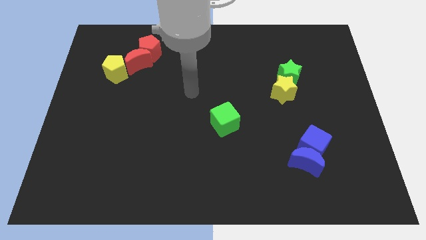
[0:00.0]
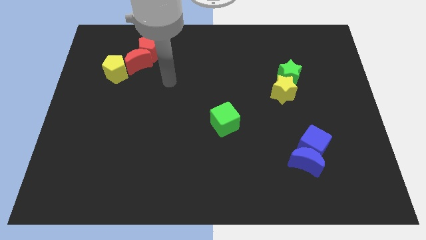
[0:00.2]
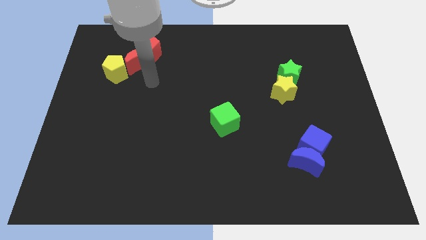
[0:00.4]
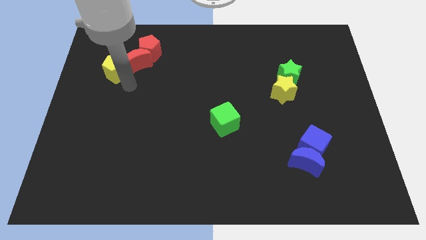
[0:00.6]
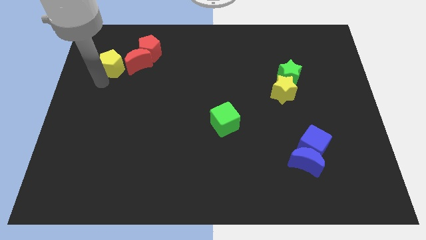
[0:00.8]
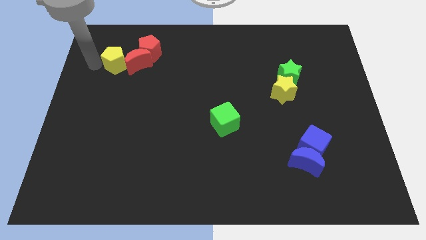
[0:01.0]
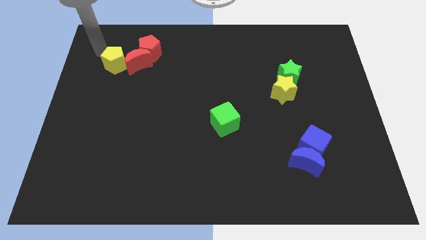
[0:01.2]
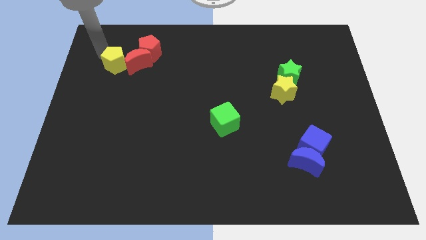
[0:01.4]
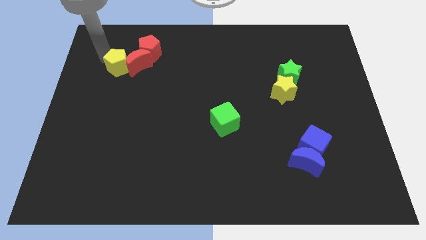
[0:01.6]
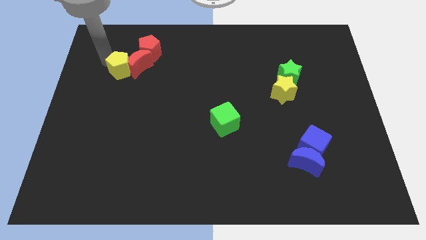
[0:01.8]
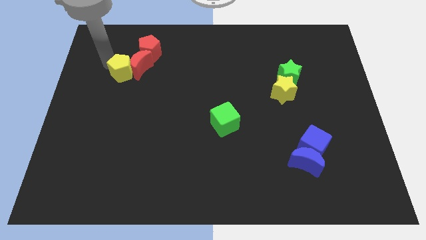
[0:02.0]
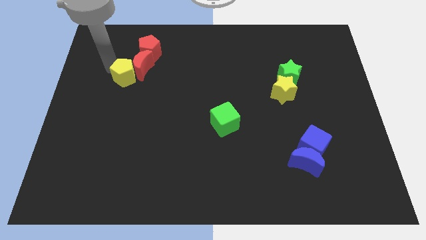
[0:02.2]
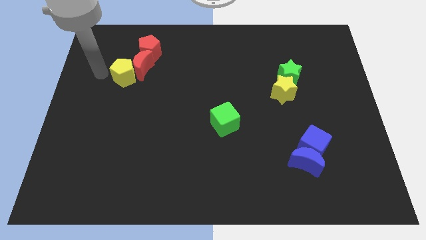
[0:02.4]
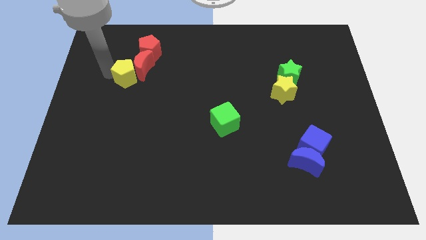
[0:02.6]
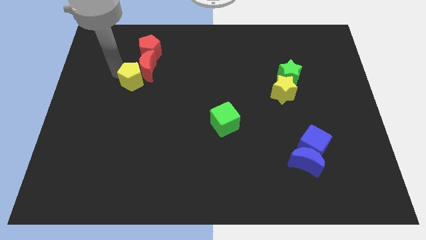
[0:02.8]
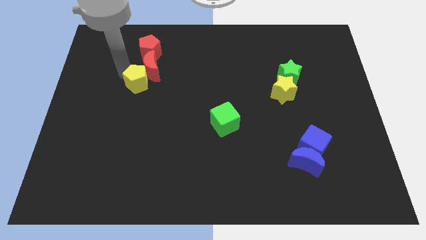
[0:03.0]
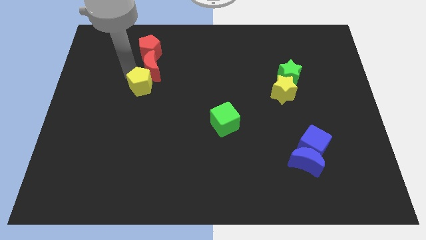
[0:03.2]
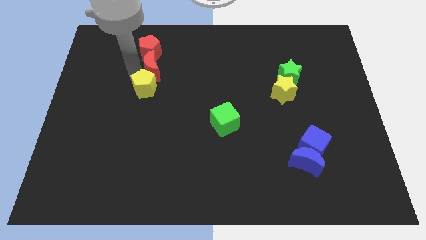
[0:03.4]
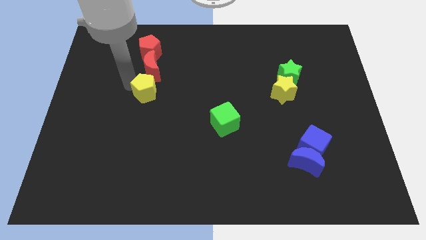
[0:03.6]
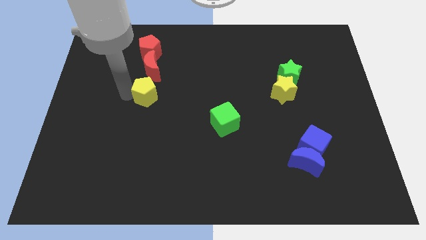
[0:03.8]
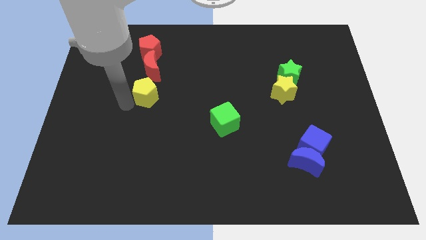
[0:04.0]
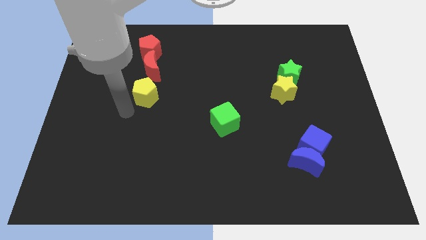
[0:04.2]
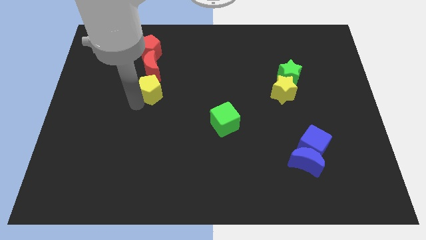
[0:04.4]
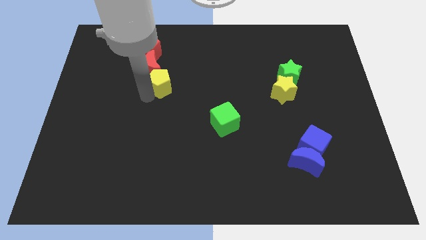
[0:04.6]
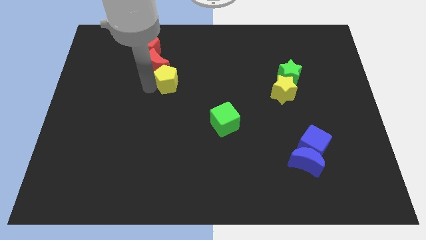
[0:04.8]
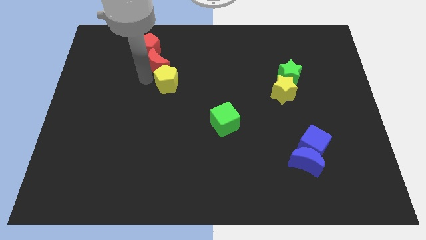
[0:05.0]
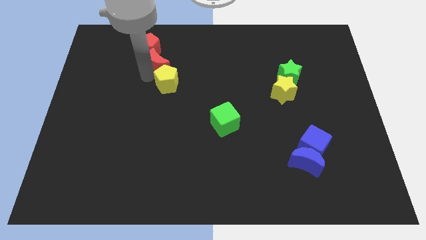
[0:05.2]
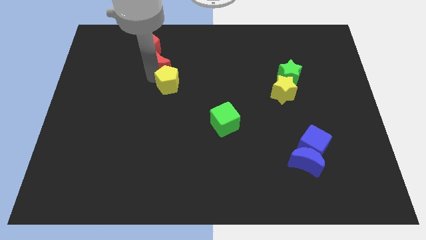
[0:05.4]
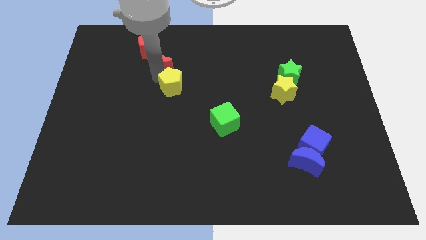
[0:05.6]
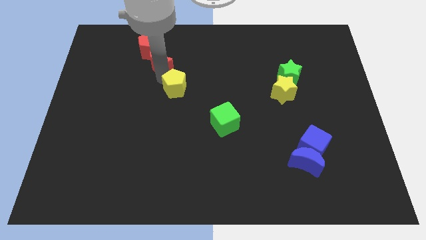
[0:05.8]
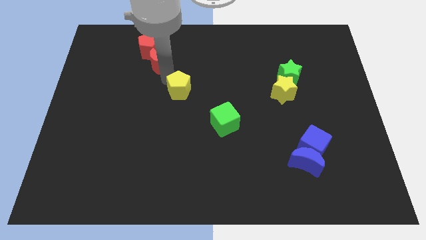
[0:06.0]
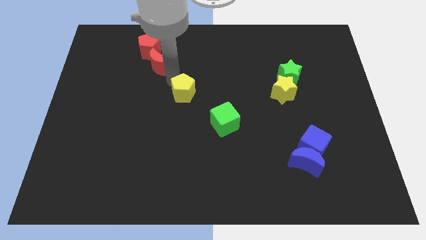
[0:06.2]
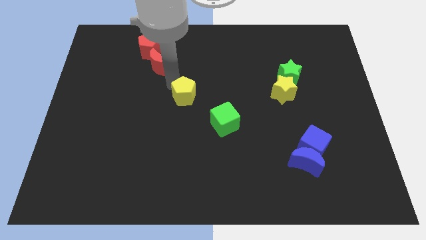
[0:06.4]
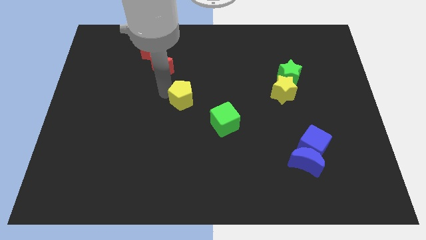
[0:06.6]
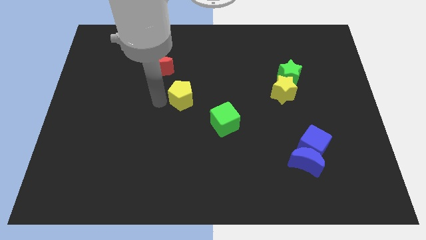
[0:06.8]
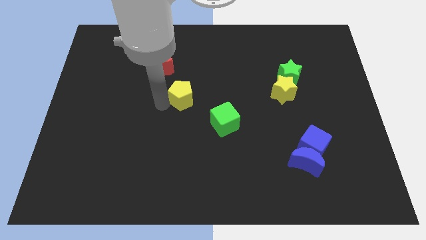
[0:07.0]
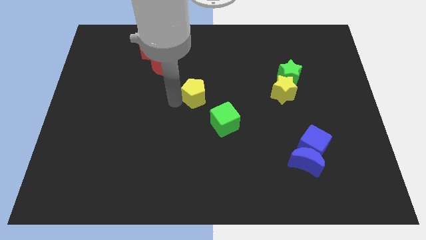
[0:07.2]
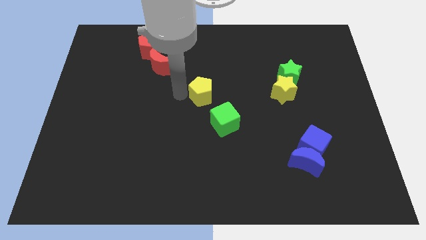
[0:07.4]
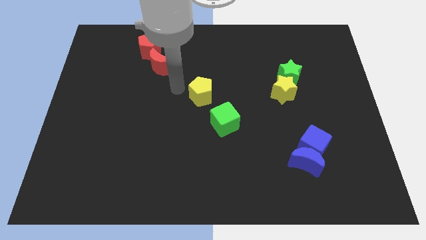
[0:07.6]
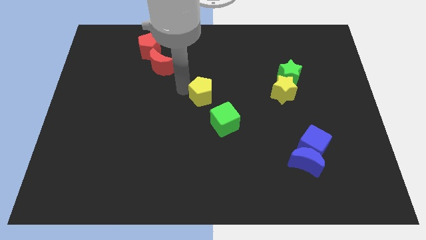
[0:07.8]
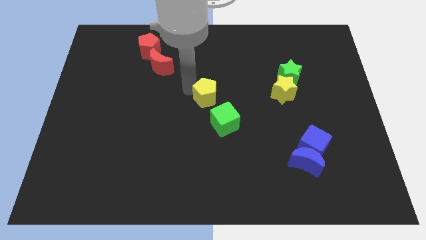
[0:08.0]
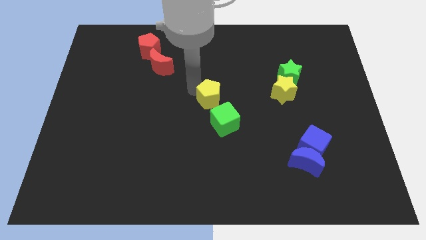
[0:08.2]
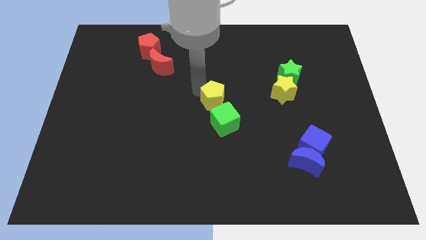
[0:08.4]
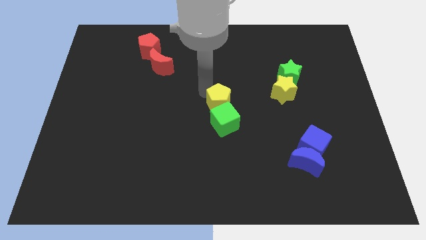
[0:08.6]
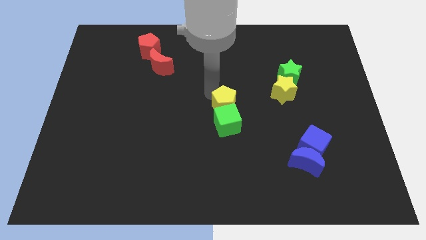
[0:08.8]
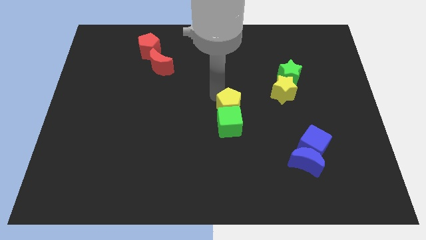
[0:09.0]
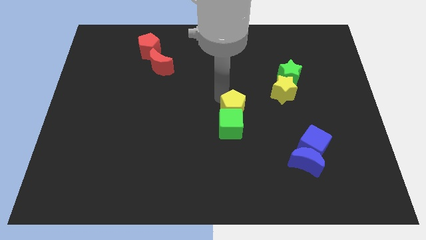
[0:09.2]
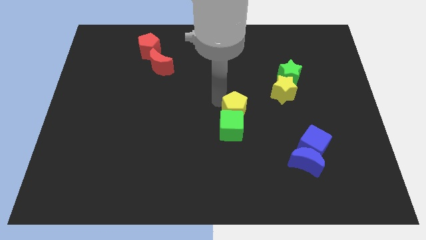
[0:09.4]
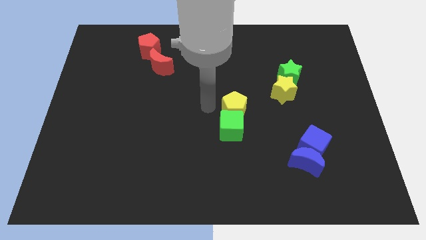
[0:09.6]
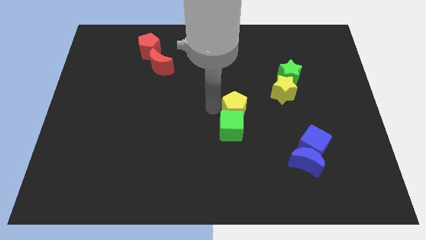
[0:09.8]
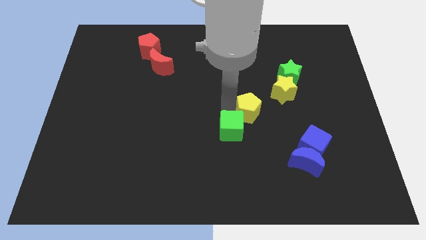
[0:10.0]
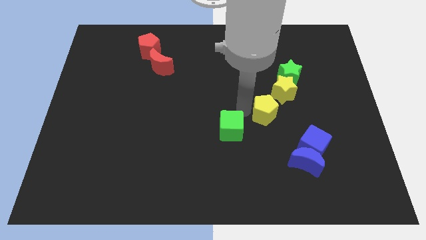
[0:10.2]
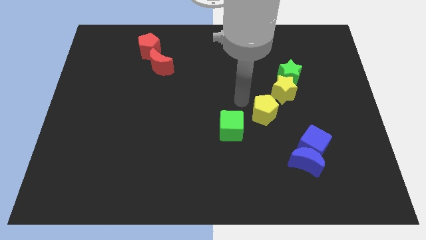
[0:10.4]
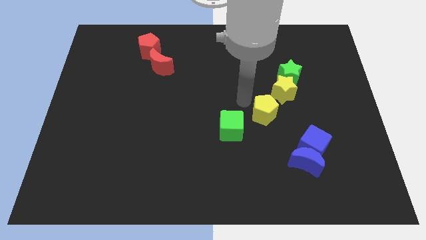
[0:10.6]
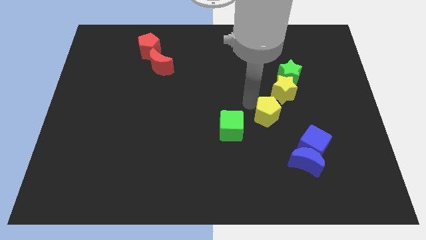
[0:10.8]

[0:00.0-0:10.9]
put the yellow pentagon to the bottom of the yellow star

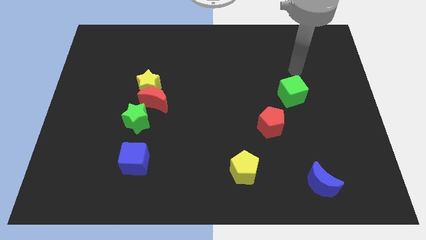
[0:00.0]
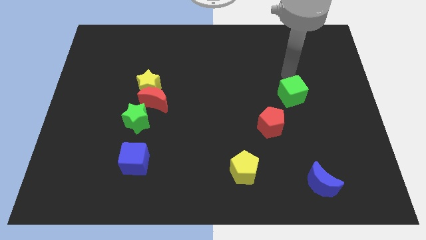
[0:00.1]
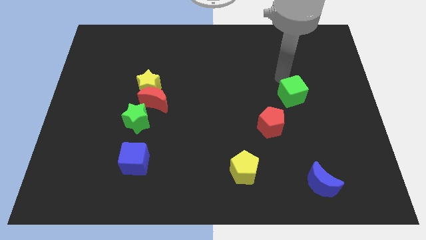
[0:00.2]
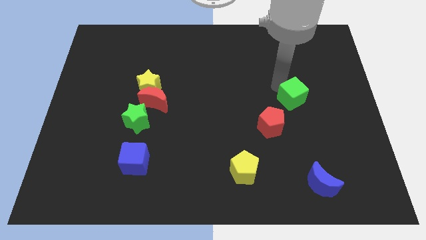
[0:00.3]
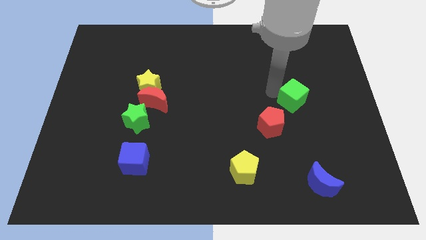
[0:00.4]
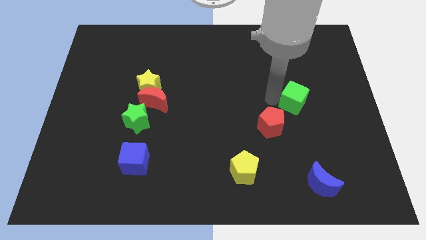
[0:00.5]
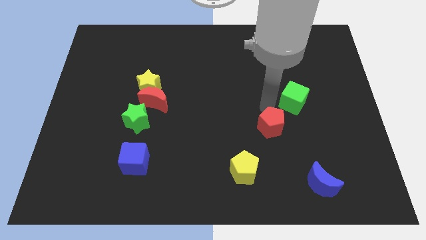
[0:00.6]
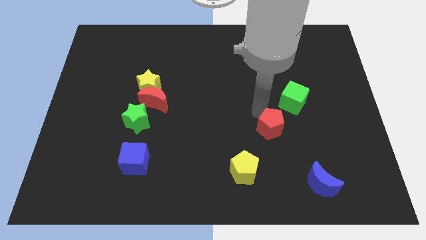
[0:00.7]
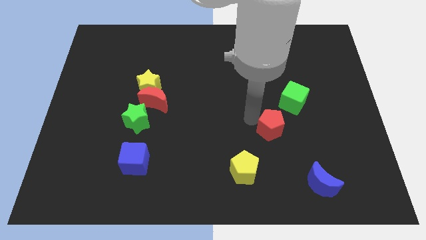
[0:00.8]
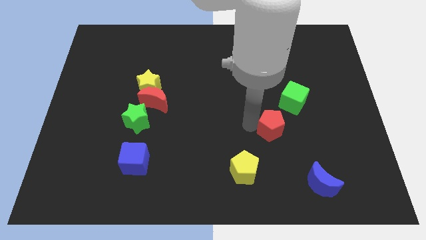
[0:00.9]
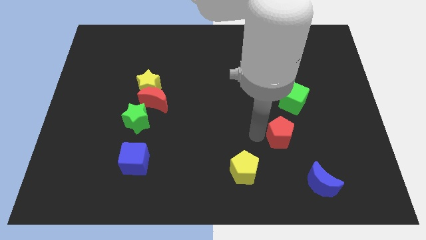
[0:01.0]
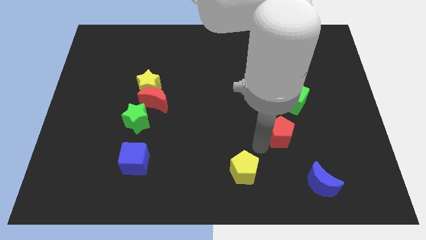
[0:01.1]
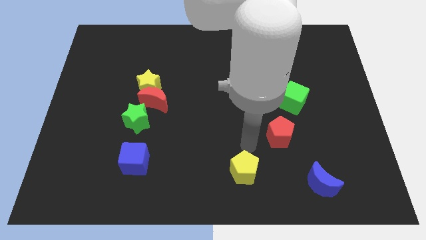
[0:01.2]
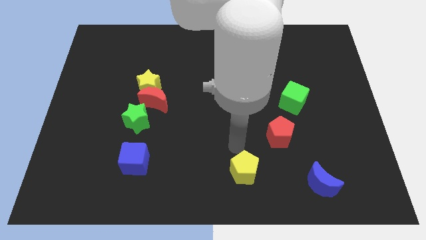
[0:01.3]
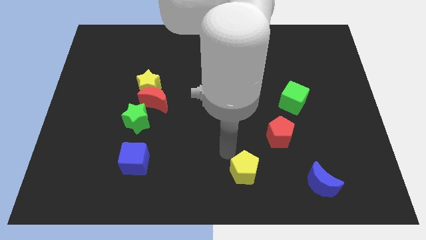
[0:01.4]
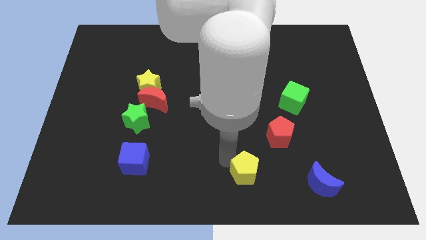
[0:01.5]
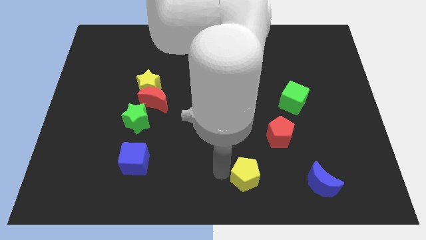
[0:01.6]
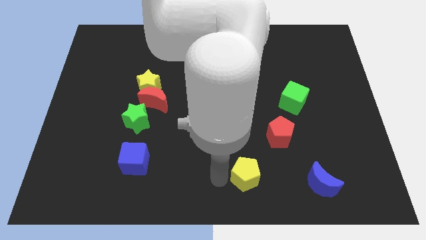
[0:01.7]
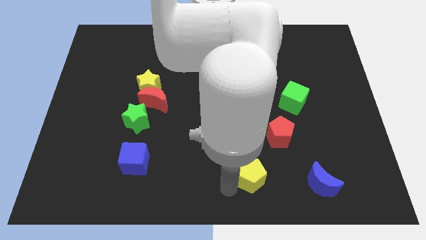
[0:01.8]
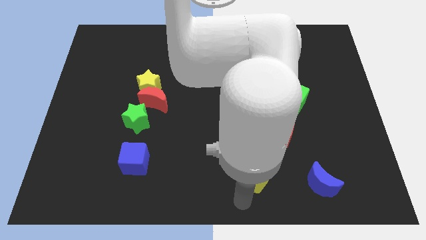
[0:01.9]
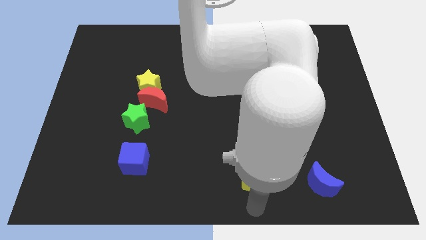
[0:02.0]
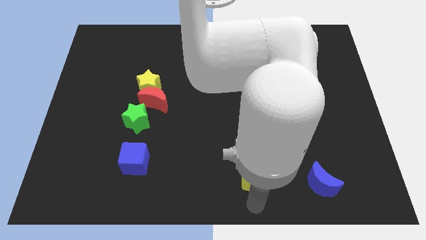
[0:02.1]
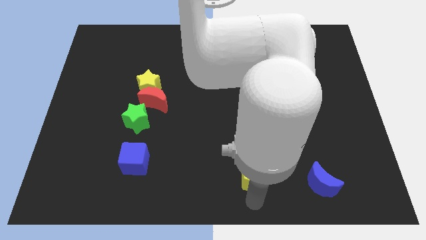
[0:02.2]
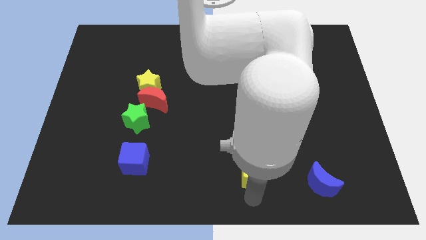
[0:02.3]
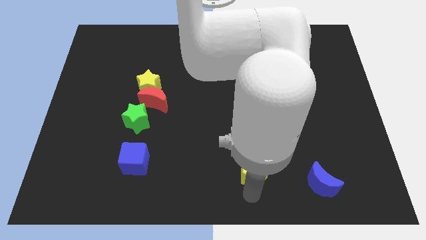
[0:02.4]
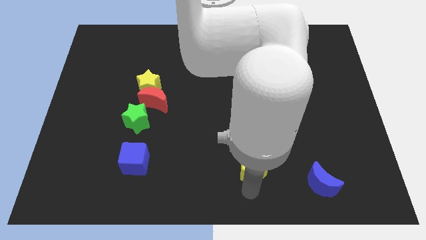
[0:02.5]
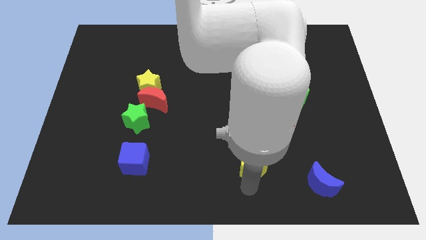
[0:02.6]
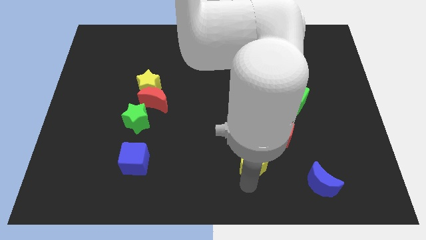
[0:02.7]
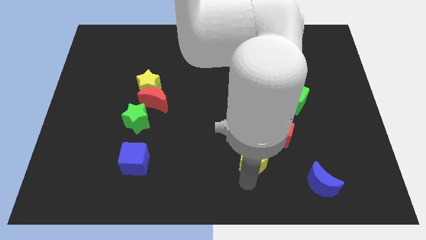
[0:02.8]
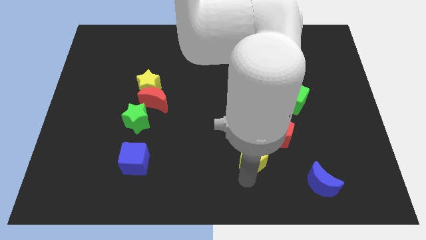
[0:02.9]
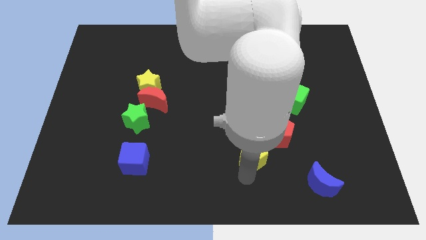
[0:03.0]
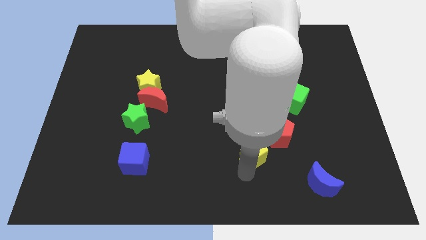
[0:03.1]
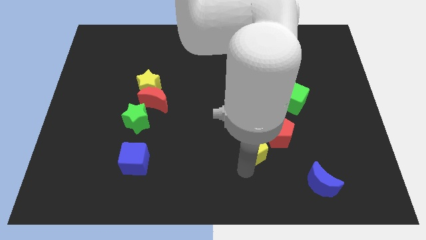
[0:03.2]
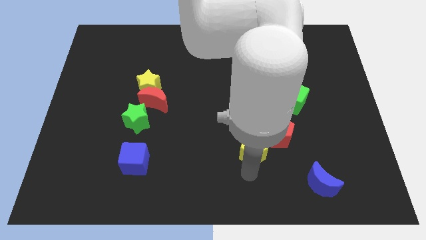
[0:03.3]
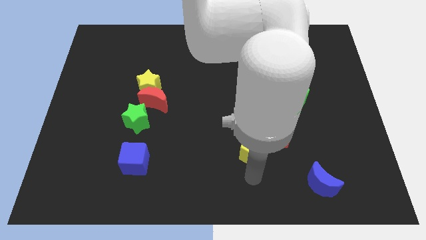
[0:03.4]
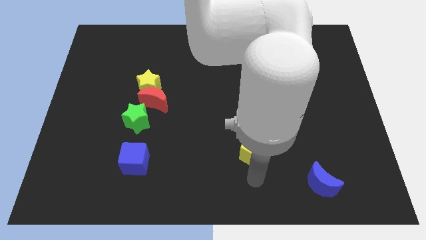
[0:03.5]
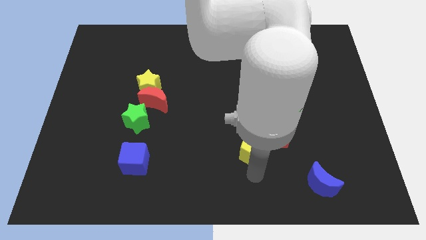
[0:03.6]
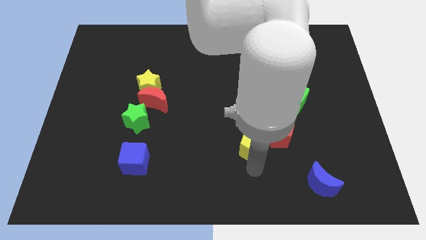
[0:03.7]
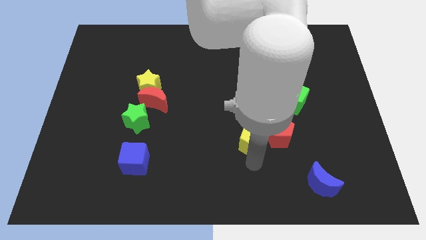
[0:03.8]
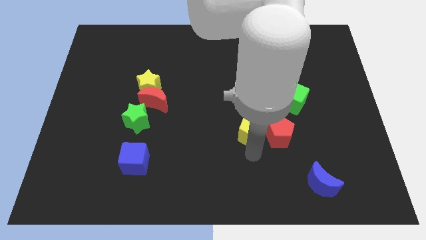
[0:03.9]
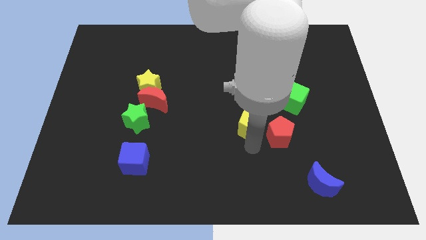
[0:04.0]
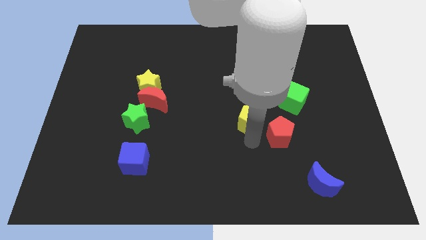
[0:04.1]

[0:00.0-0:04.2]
slide the yellow pentagon diagonally down and to the left of the green cube
